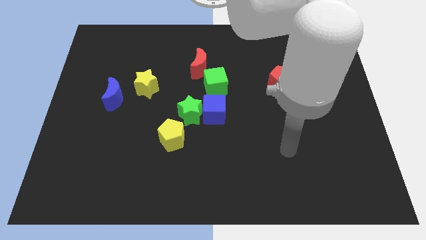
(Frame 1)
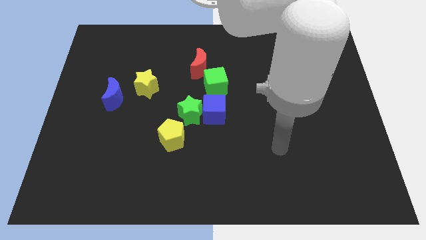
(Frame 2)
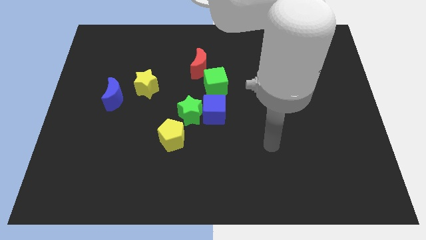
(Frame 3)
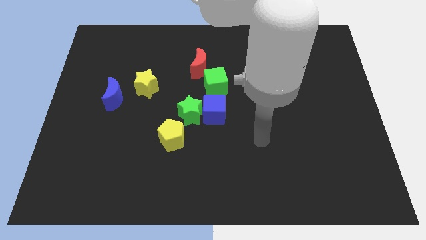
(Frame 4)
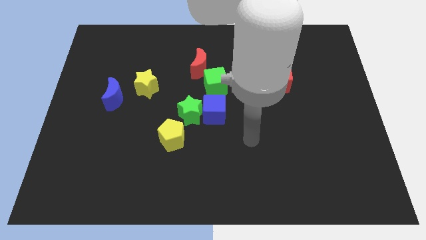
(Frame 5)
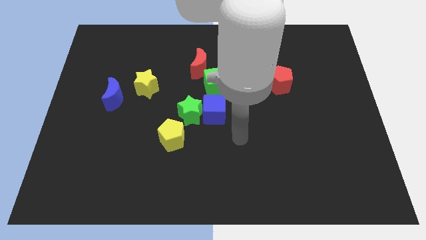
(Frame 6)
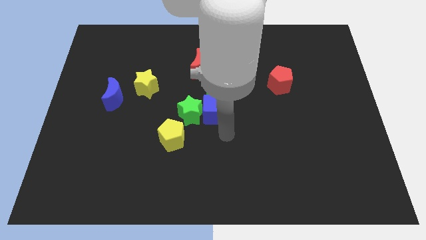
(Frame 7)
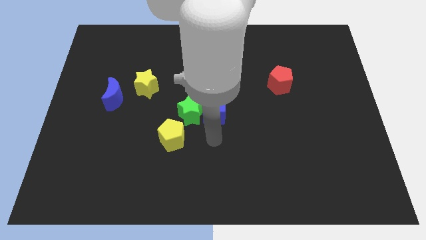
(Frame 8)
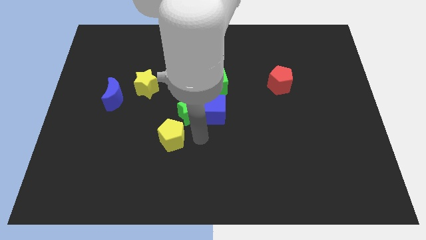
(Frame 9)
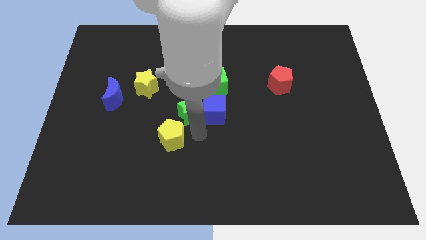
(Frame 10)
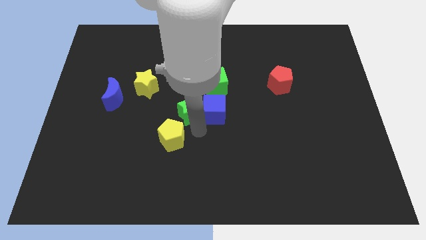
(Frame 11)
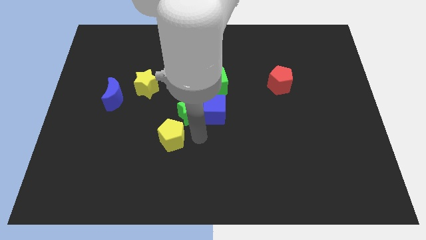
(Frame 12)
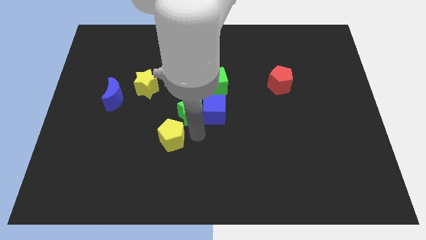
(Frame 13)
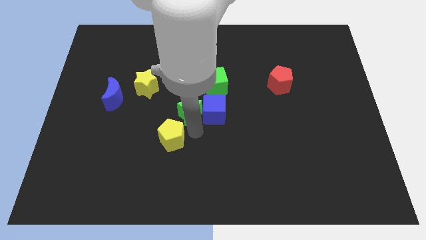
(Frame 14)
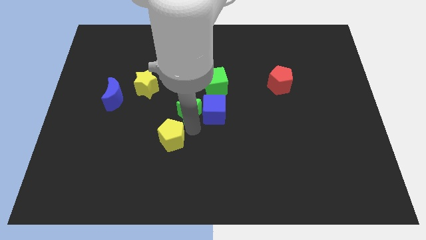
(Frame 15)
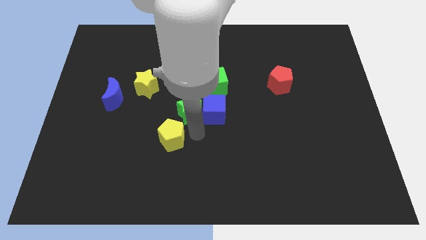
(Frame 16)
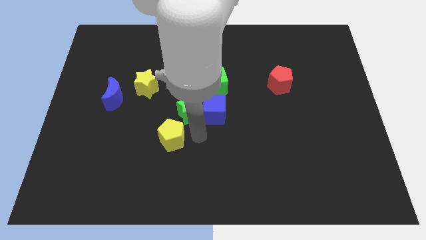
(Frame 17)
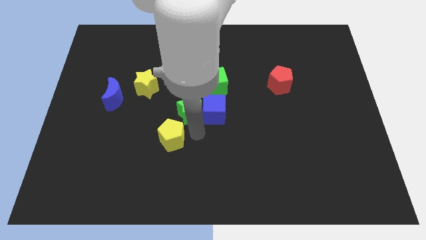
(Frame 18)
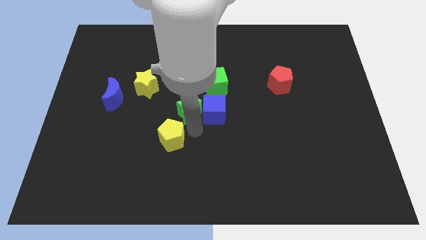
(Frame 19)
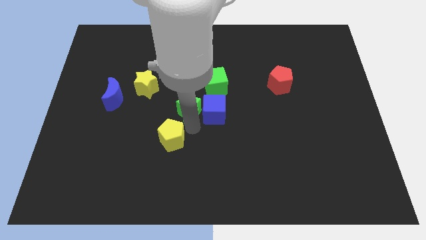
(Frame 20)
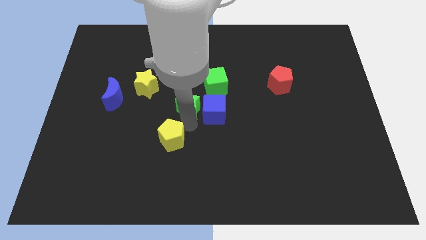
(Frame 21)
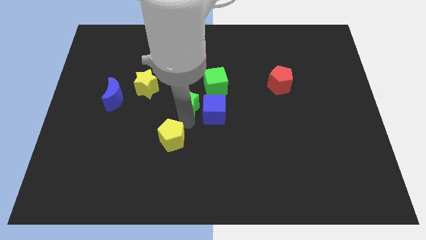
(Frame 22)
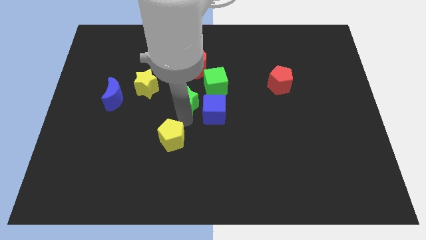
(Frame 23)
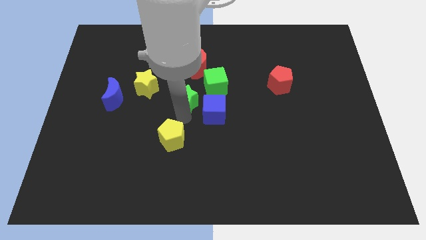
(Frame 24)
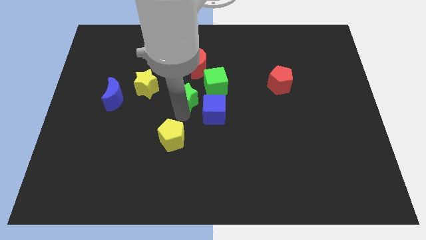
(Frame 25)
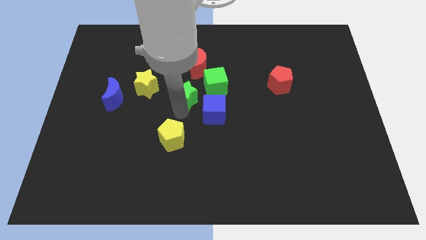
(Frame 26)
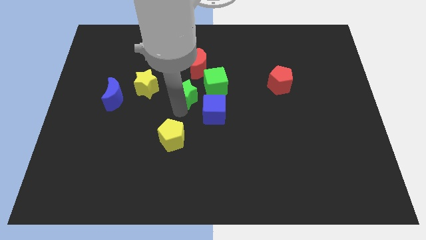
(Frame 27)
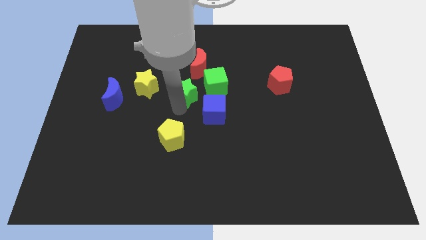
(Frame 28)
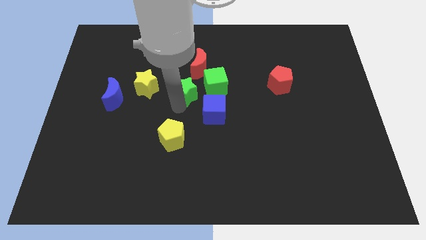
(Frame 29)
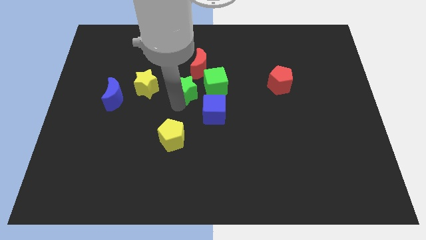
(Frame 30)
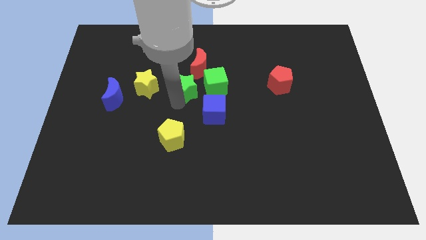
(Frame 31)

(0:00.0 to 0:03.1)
separate the green star from the blue cube and yellow pentagon

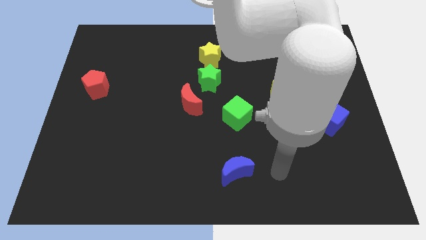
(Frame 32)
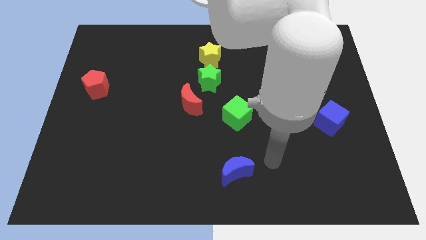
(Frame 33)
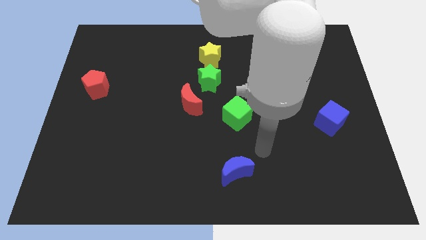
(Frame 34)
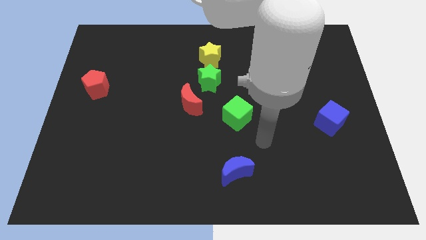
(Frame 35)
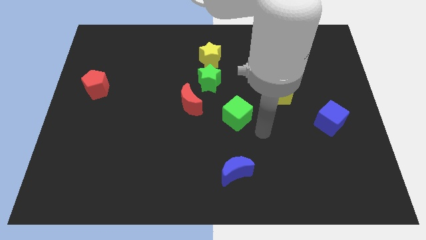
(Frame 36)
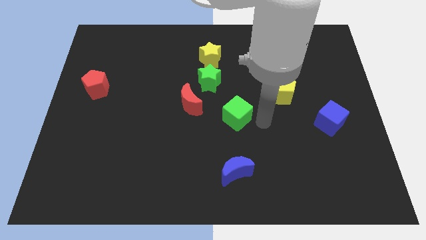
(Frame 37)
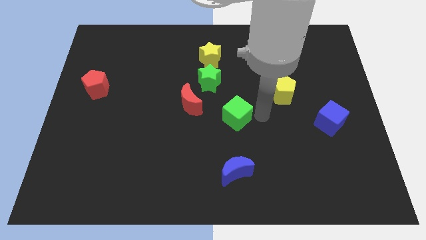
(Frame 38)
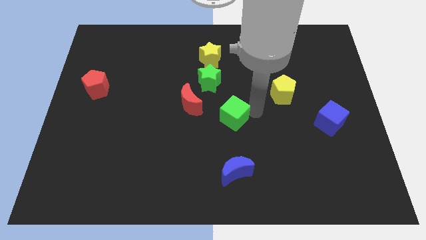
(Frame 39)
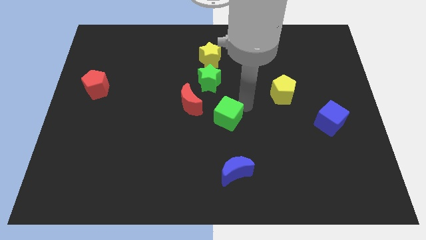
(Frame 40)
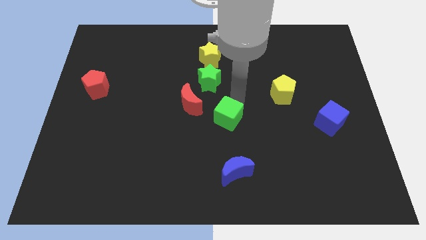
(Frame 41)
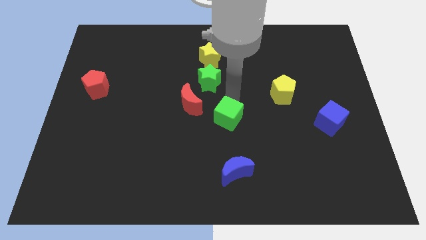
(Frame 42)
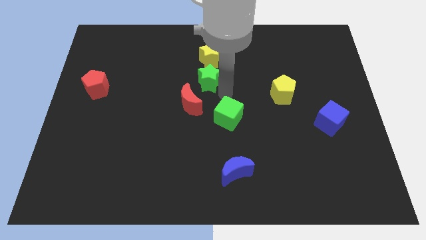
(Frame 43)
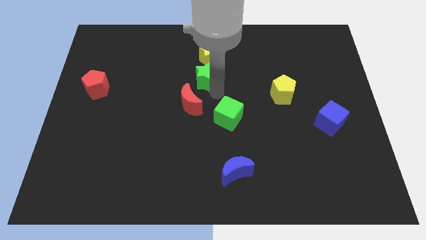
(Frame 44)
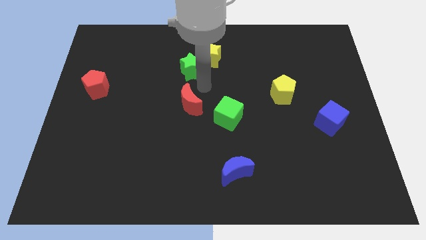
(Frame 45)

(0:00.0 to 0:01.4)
move the red moon away from the green star

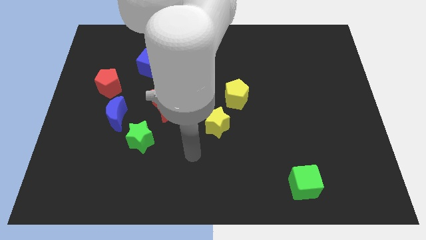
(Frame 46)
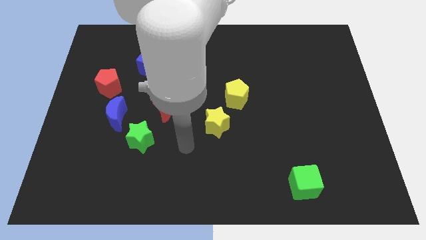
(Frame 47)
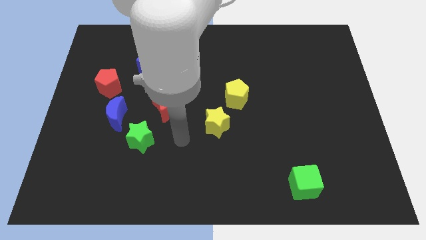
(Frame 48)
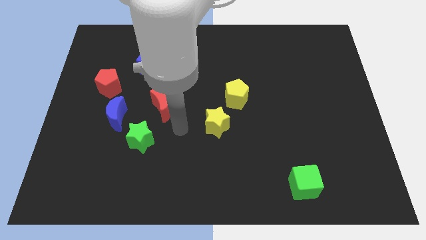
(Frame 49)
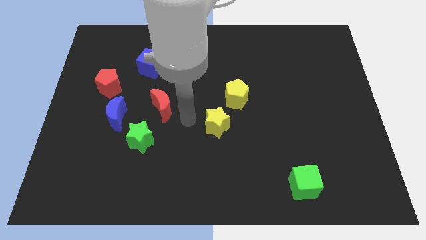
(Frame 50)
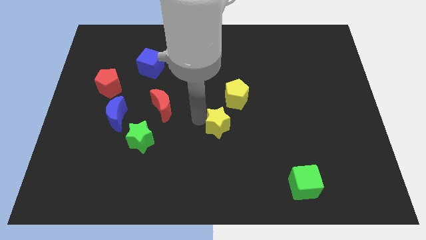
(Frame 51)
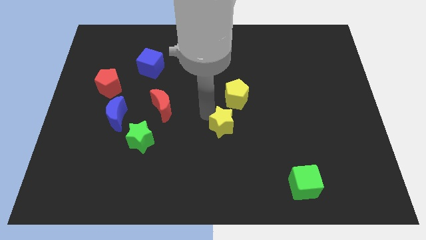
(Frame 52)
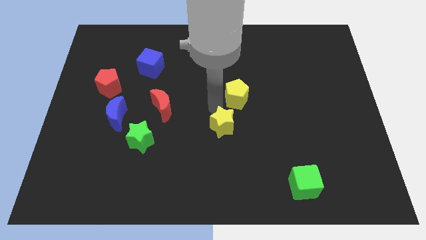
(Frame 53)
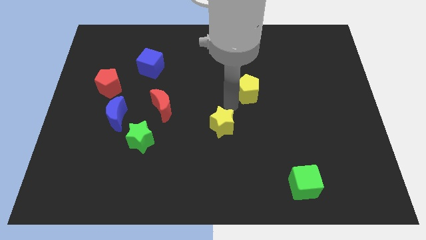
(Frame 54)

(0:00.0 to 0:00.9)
move the yellow star away from the yellow pentagon

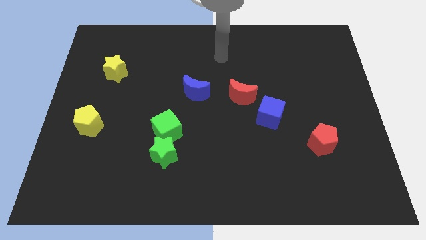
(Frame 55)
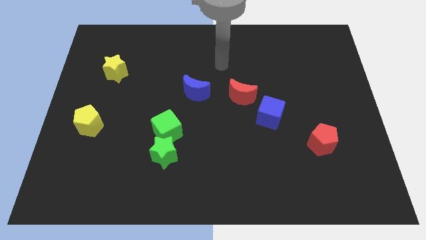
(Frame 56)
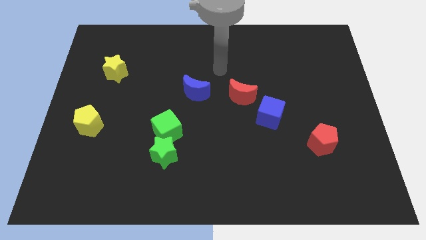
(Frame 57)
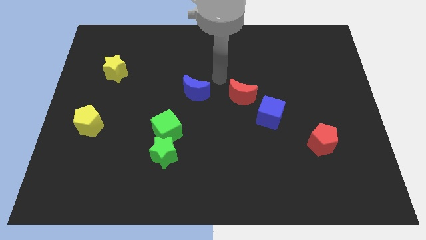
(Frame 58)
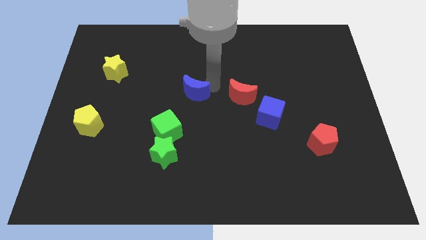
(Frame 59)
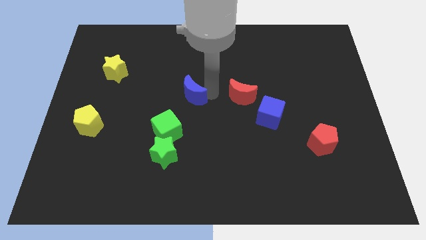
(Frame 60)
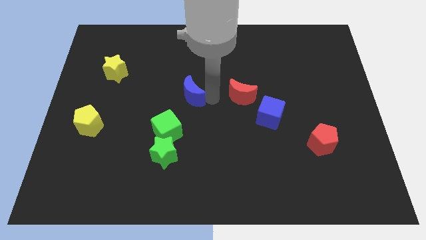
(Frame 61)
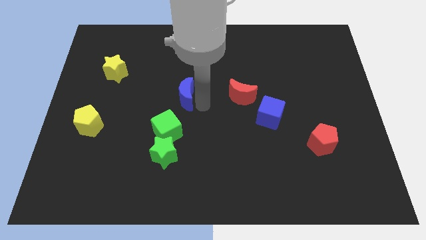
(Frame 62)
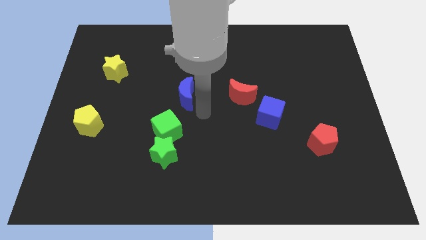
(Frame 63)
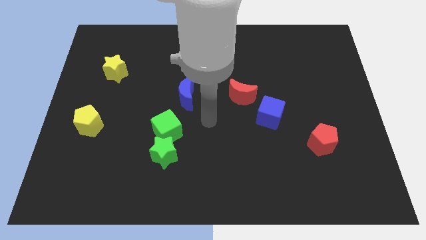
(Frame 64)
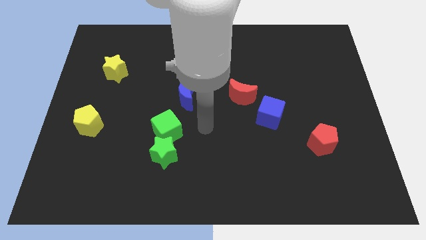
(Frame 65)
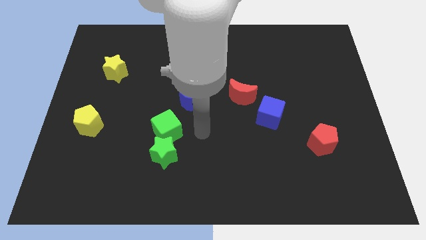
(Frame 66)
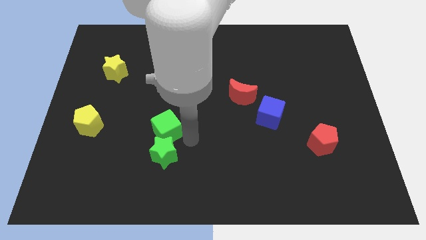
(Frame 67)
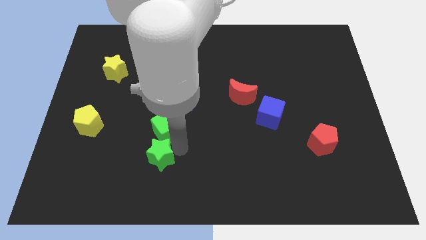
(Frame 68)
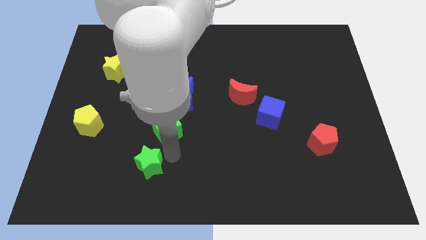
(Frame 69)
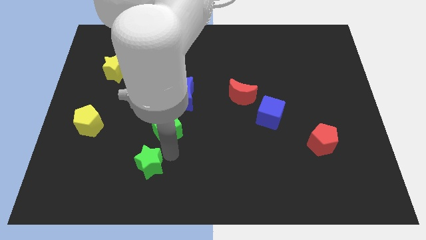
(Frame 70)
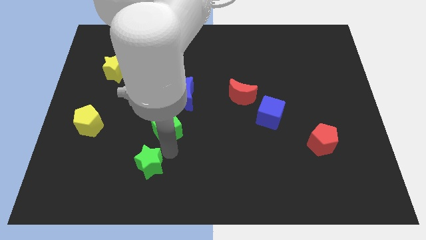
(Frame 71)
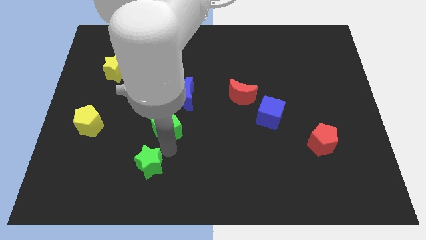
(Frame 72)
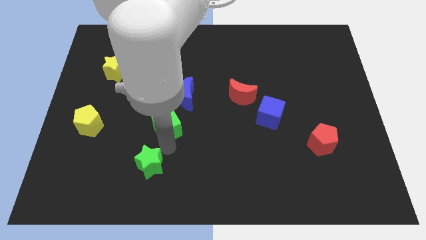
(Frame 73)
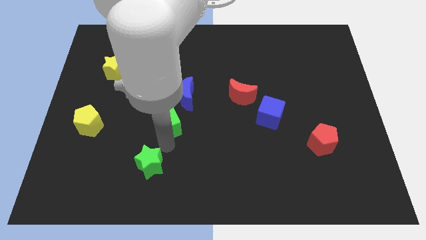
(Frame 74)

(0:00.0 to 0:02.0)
pull the green cube apart from the green star

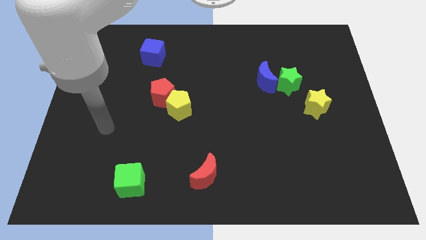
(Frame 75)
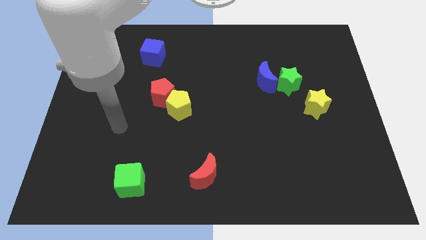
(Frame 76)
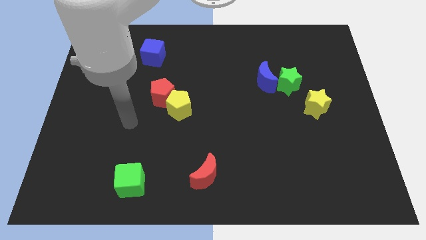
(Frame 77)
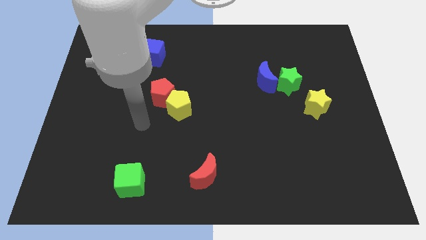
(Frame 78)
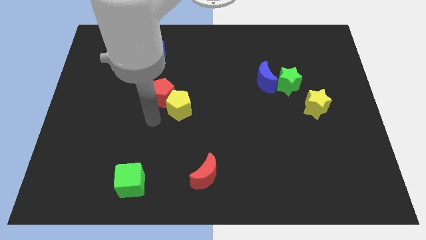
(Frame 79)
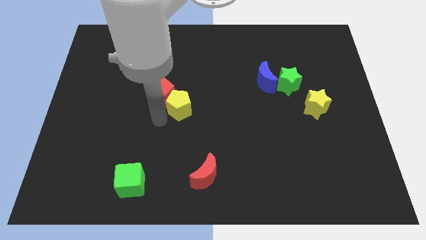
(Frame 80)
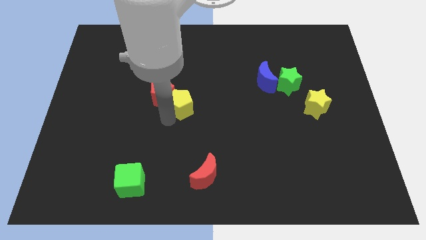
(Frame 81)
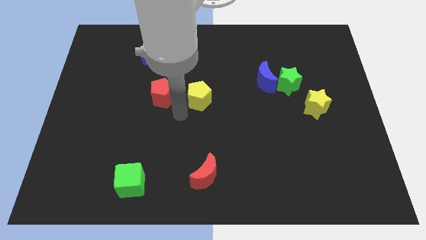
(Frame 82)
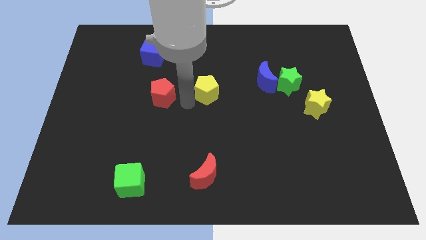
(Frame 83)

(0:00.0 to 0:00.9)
pull the red pentagon apart from the yellow pentagon

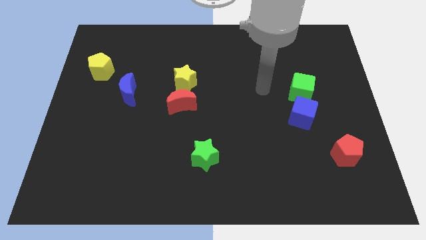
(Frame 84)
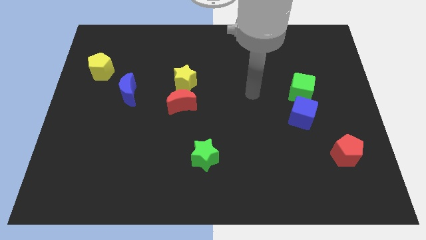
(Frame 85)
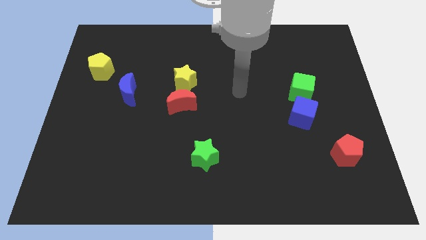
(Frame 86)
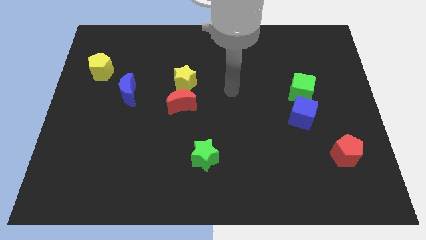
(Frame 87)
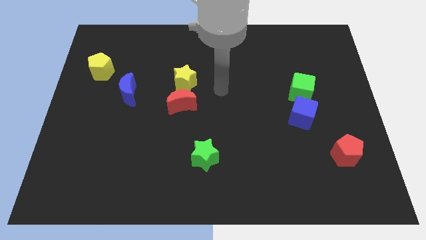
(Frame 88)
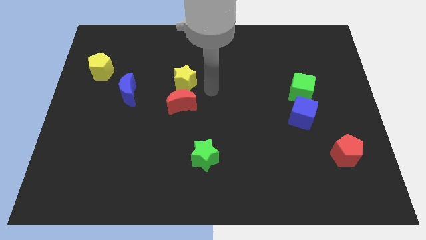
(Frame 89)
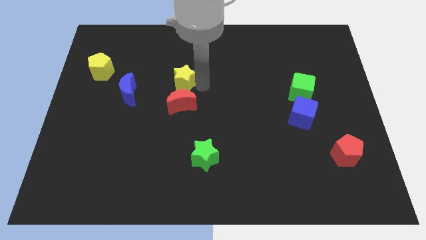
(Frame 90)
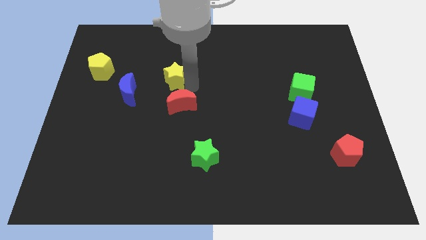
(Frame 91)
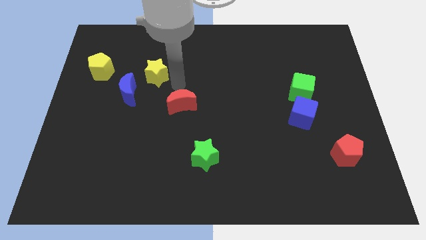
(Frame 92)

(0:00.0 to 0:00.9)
pull the red moon apart from the yellow star
